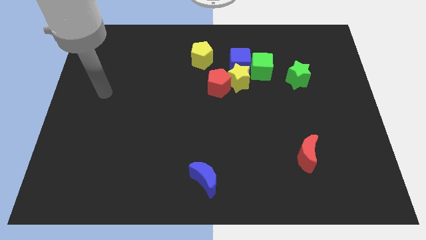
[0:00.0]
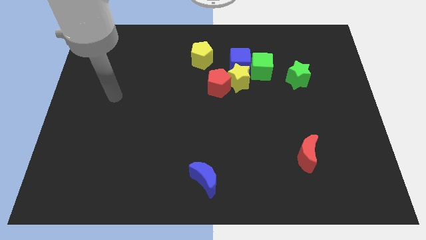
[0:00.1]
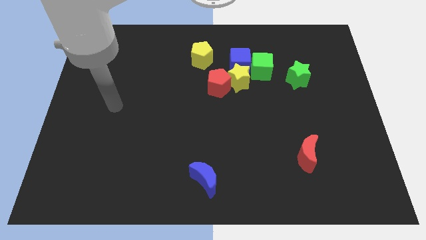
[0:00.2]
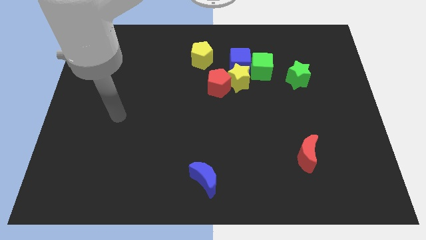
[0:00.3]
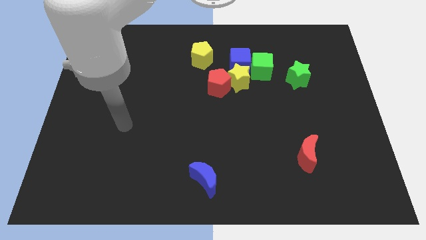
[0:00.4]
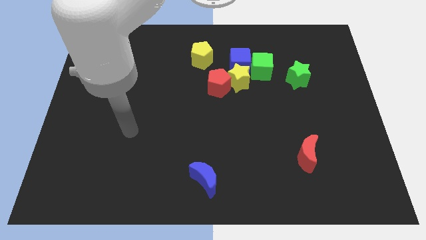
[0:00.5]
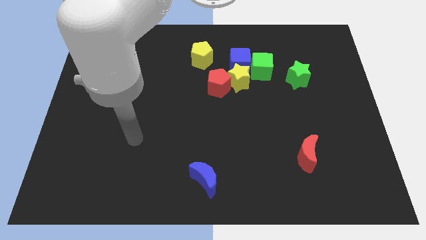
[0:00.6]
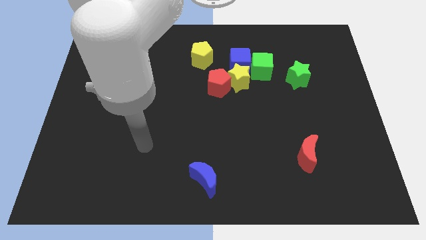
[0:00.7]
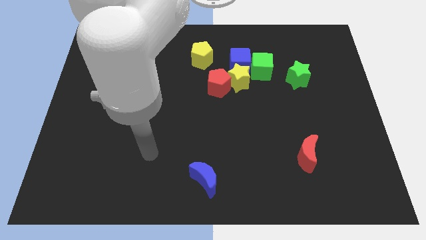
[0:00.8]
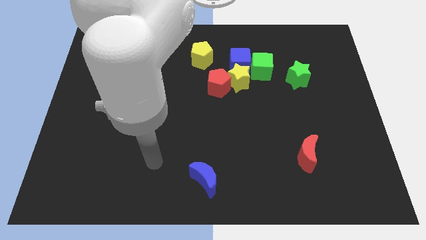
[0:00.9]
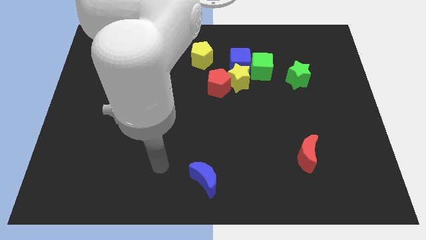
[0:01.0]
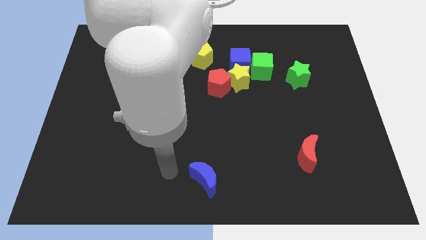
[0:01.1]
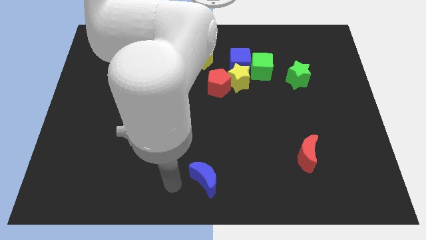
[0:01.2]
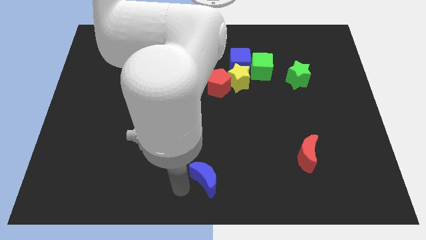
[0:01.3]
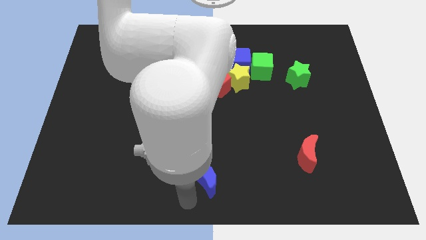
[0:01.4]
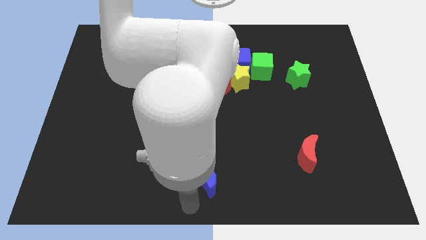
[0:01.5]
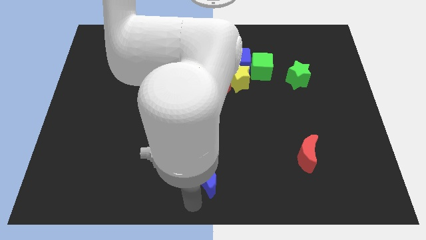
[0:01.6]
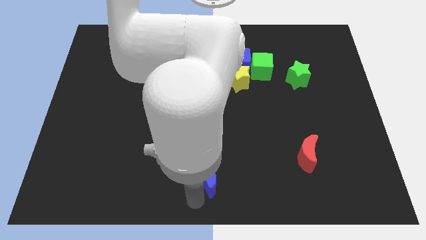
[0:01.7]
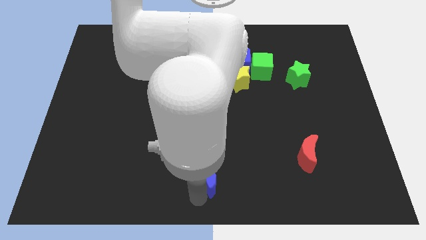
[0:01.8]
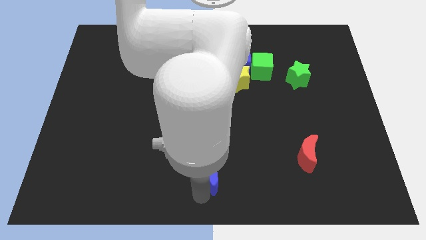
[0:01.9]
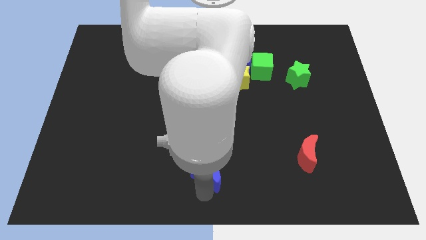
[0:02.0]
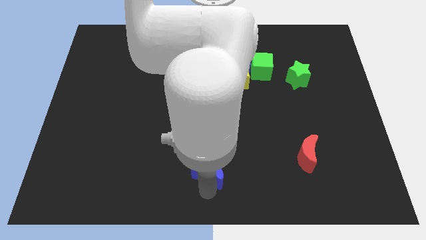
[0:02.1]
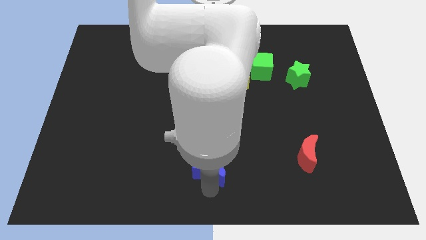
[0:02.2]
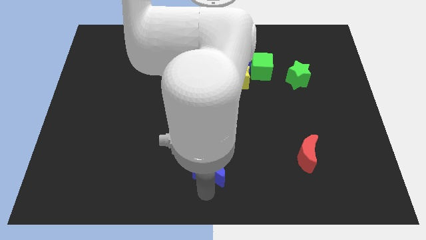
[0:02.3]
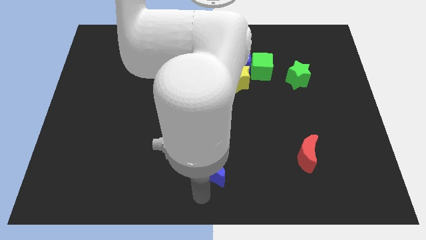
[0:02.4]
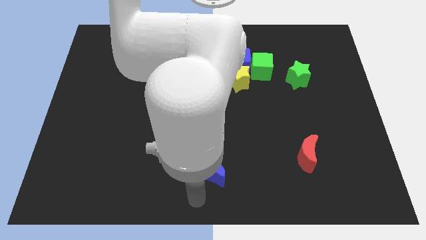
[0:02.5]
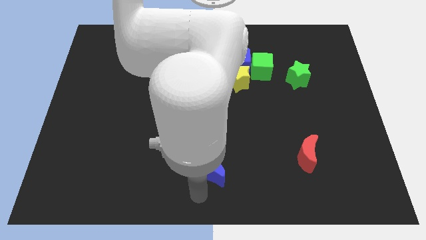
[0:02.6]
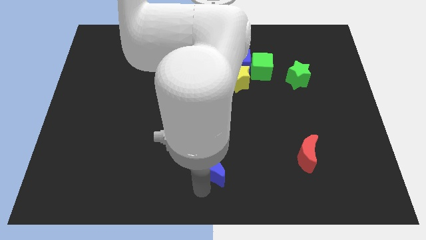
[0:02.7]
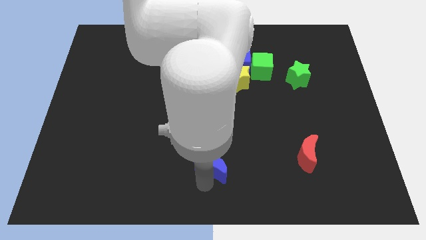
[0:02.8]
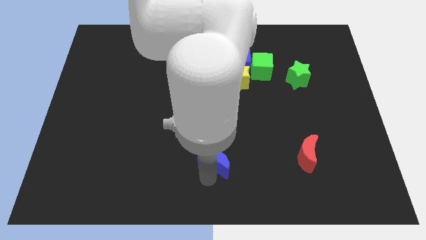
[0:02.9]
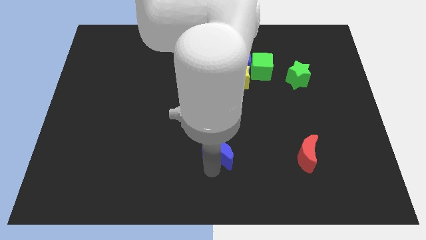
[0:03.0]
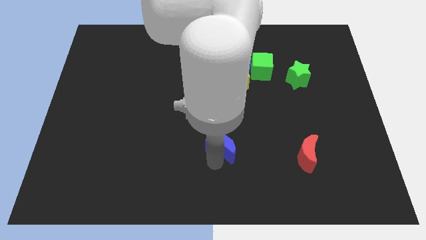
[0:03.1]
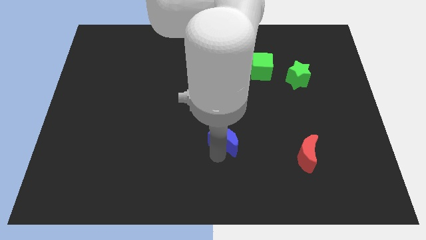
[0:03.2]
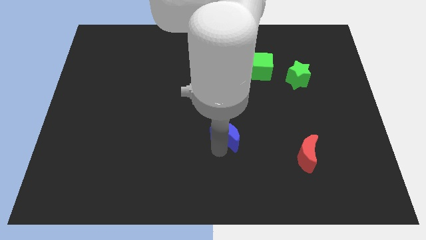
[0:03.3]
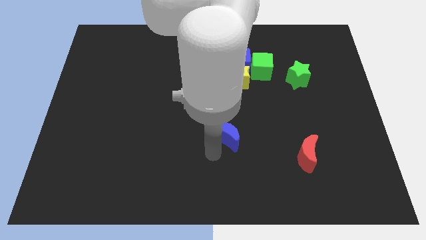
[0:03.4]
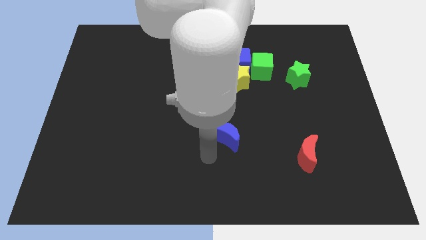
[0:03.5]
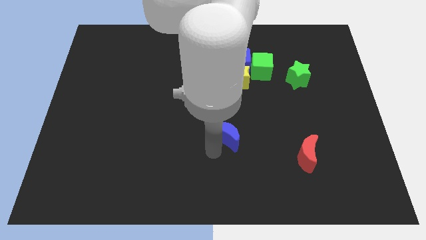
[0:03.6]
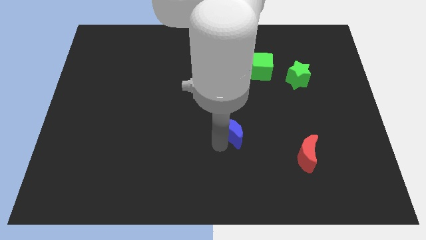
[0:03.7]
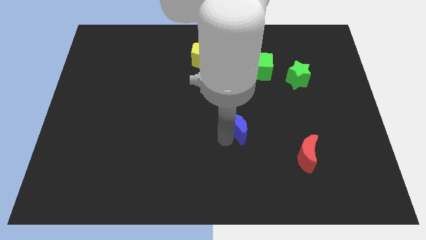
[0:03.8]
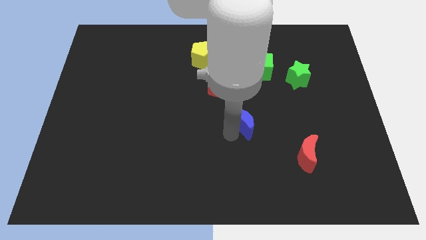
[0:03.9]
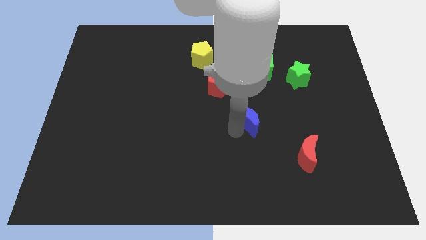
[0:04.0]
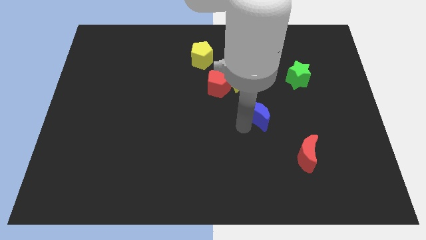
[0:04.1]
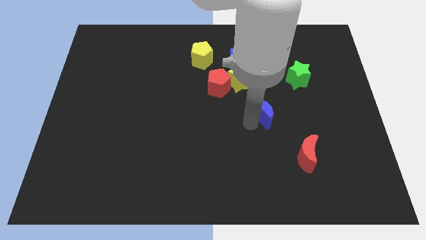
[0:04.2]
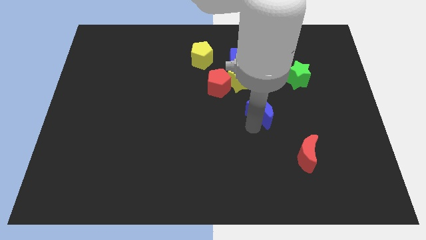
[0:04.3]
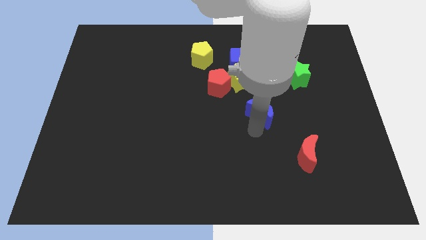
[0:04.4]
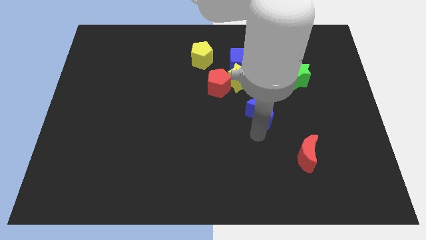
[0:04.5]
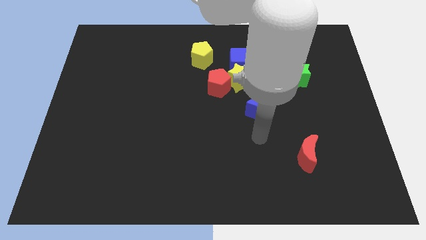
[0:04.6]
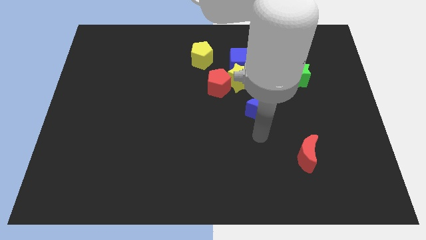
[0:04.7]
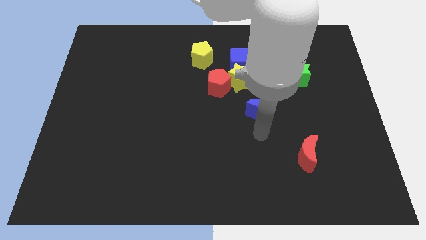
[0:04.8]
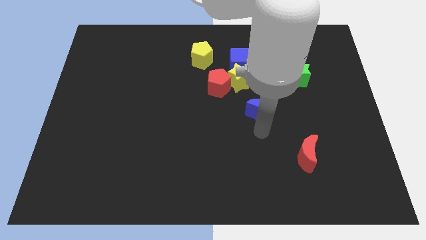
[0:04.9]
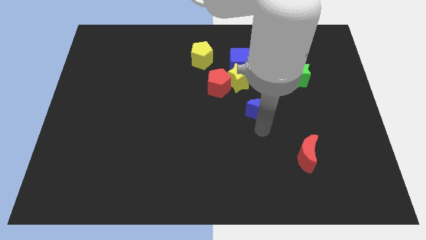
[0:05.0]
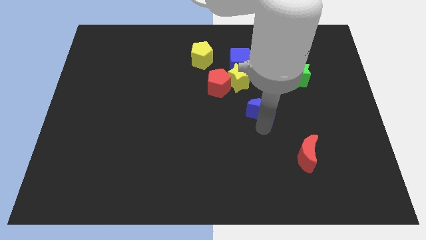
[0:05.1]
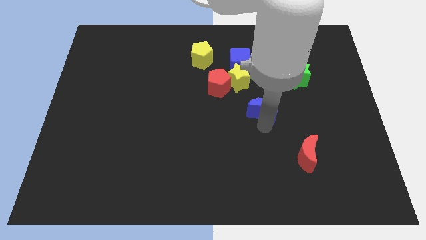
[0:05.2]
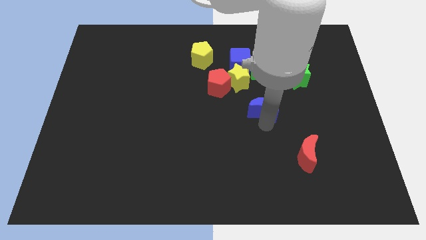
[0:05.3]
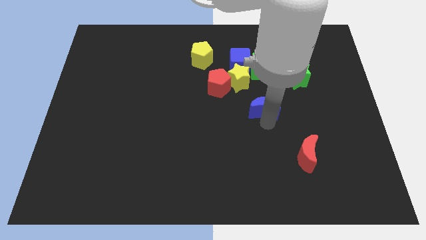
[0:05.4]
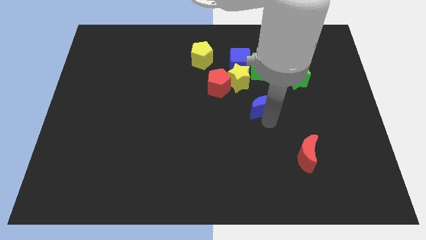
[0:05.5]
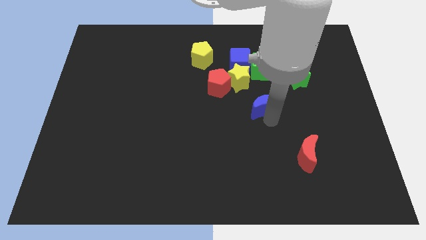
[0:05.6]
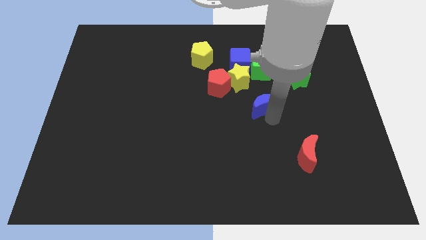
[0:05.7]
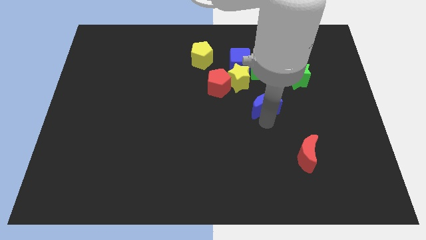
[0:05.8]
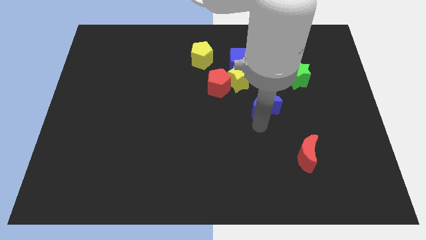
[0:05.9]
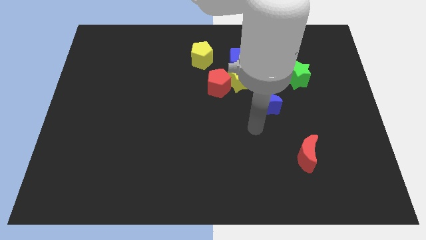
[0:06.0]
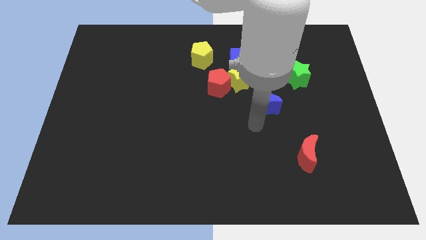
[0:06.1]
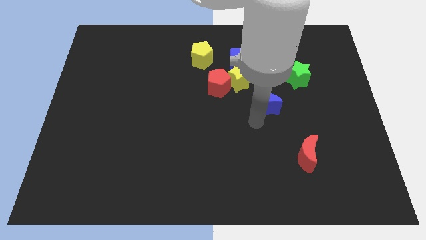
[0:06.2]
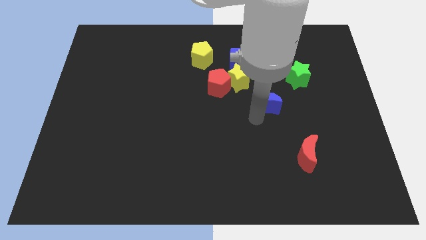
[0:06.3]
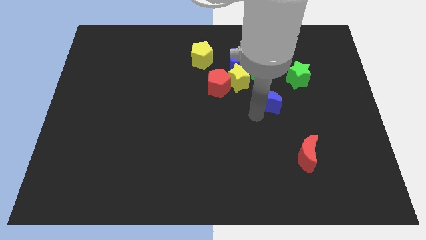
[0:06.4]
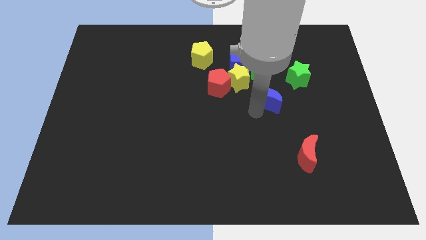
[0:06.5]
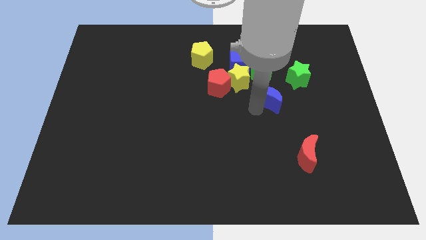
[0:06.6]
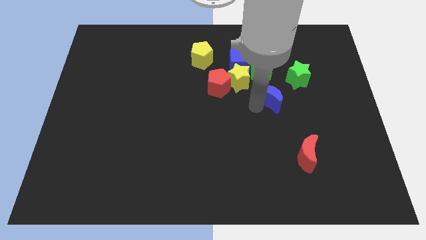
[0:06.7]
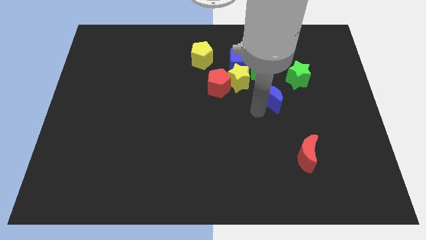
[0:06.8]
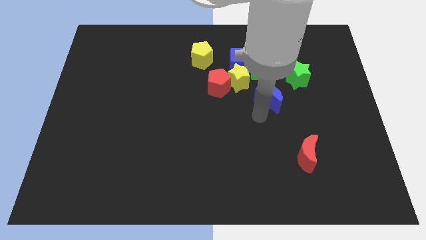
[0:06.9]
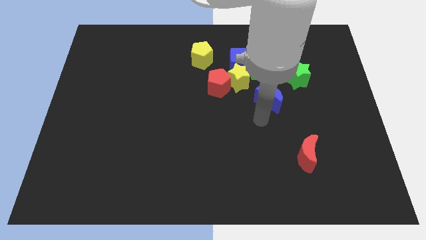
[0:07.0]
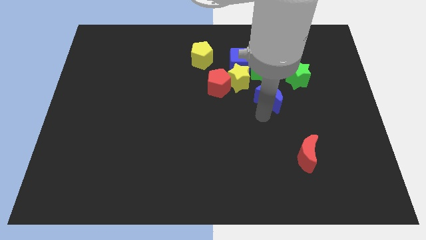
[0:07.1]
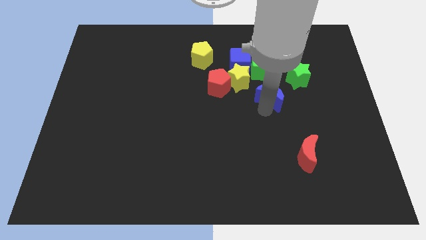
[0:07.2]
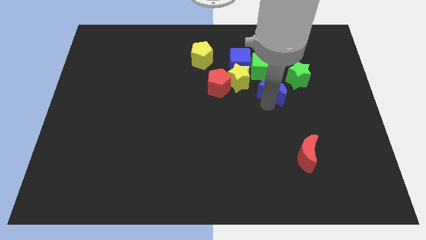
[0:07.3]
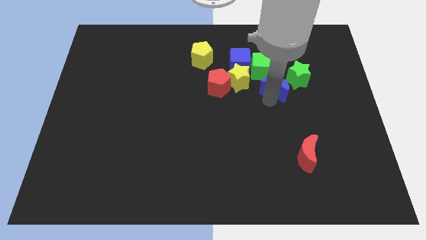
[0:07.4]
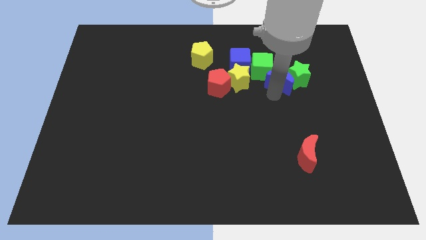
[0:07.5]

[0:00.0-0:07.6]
slide the blue moon just right of the green cube
